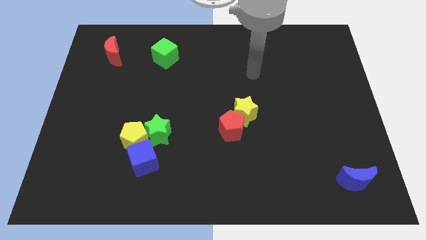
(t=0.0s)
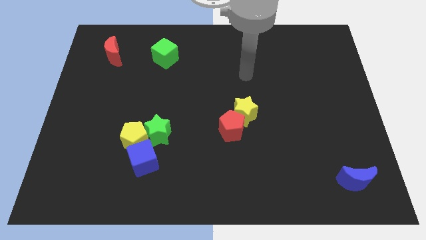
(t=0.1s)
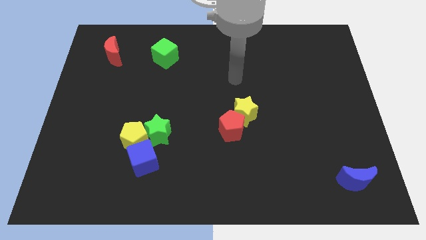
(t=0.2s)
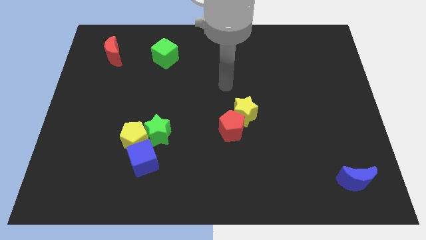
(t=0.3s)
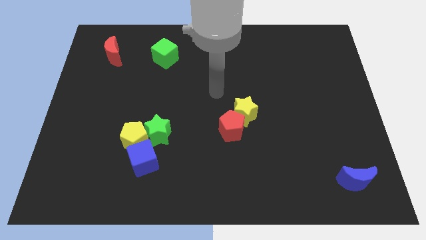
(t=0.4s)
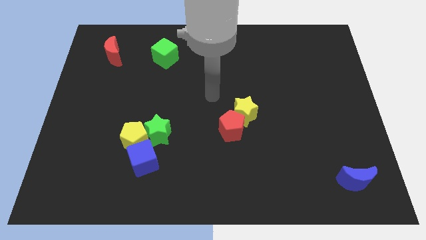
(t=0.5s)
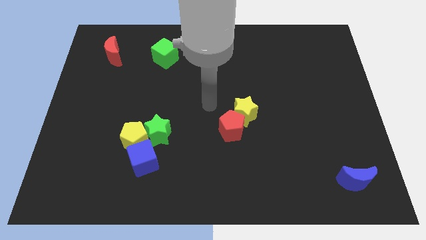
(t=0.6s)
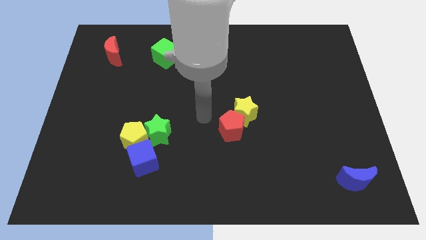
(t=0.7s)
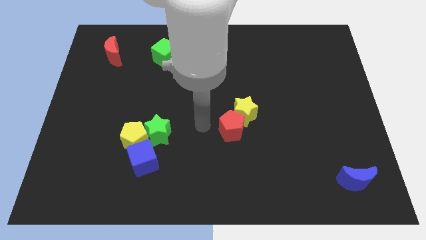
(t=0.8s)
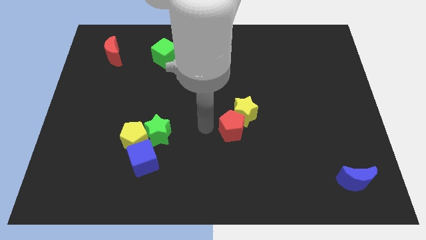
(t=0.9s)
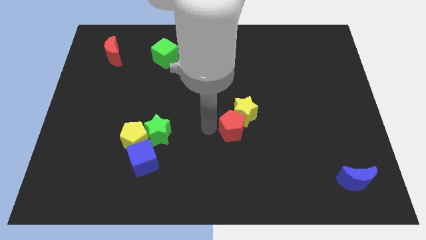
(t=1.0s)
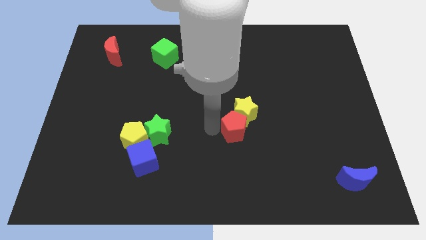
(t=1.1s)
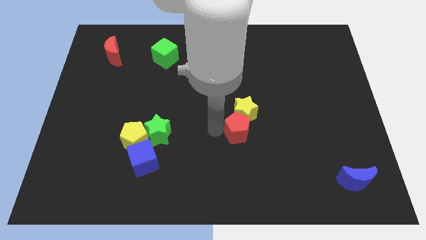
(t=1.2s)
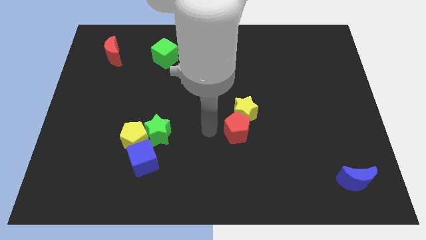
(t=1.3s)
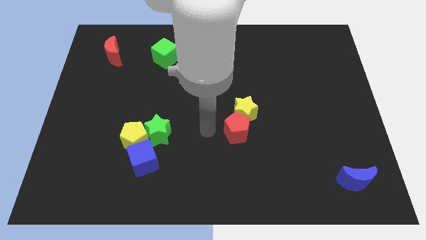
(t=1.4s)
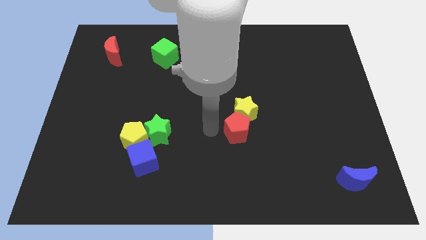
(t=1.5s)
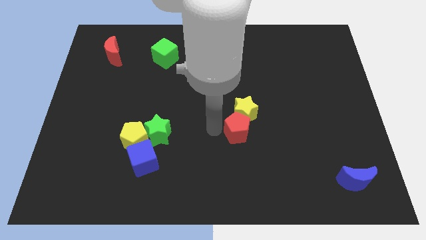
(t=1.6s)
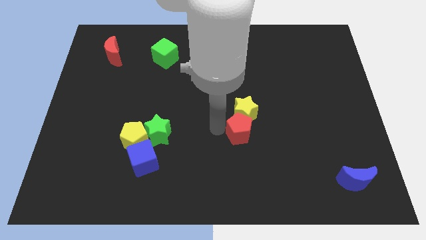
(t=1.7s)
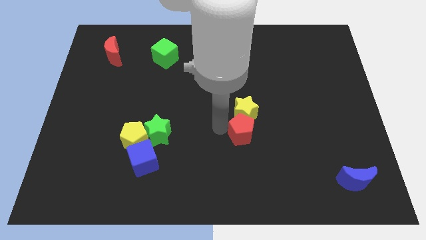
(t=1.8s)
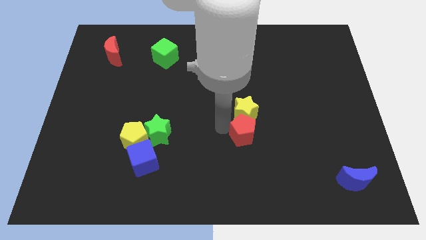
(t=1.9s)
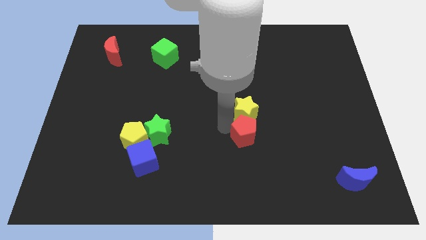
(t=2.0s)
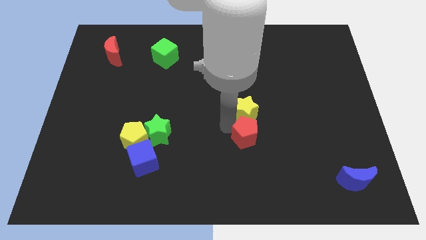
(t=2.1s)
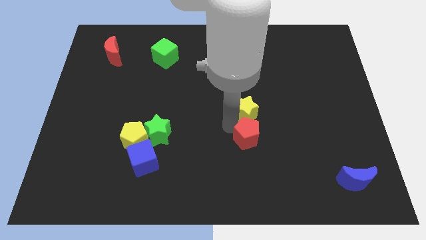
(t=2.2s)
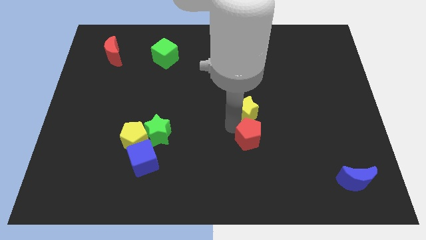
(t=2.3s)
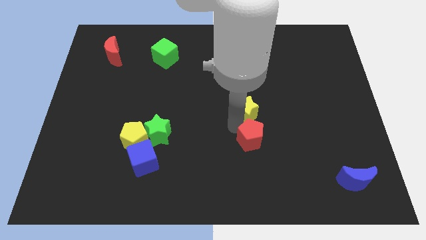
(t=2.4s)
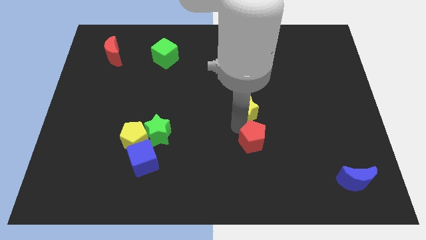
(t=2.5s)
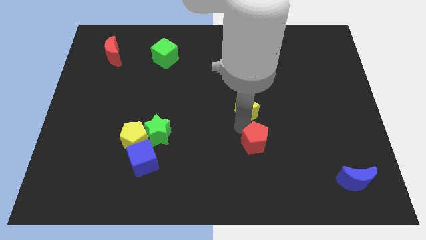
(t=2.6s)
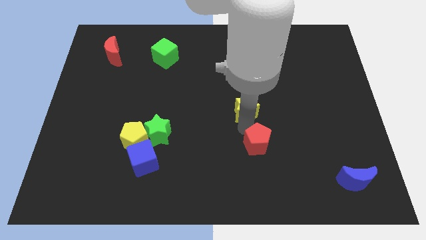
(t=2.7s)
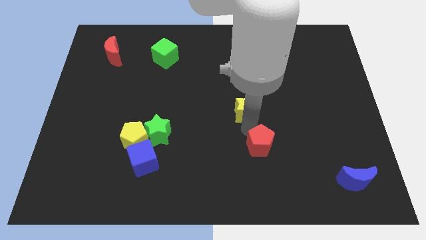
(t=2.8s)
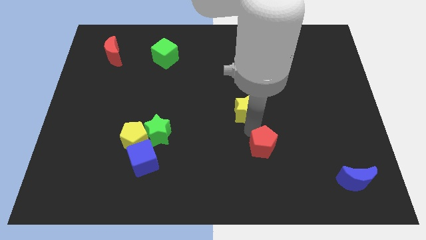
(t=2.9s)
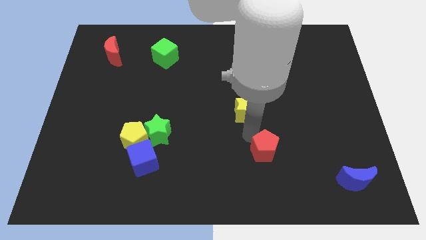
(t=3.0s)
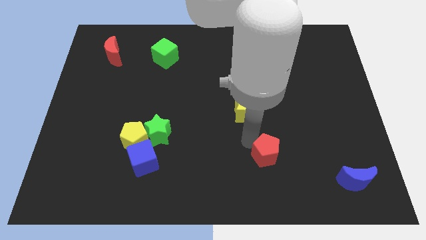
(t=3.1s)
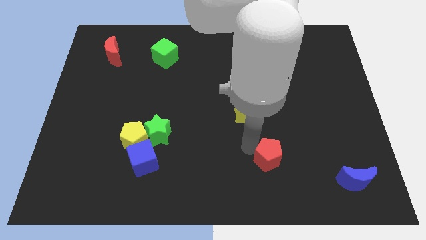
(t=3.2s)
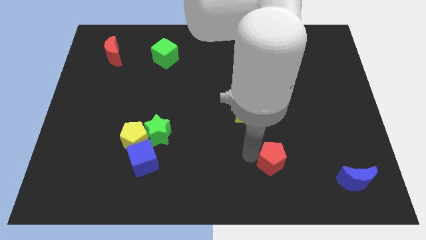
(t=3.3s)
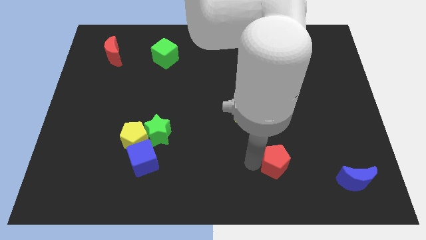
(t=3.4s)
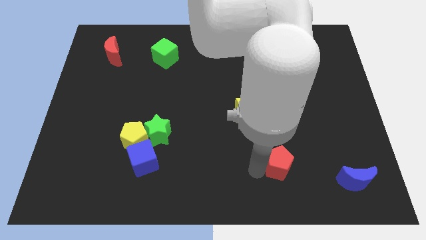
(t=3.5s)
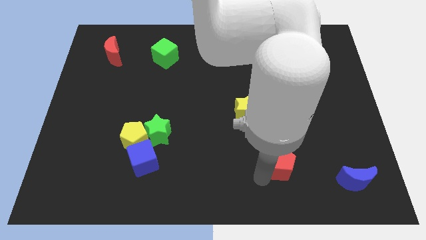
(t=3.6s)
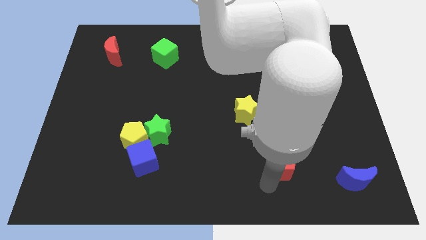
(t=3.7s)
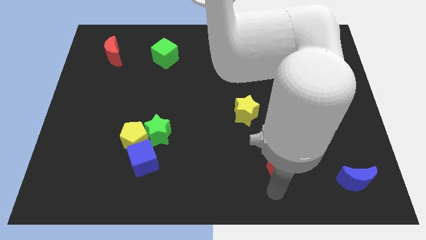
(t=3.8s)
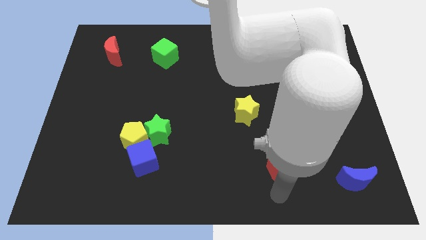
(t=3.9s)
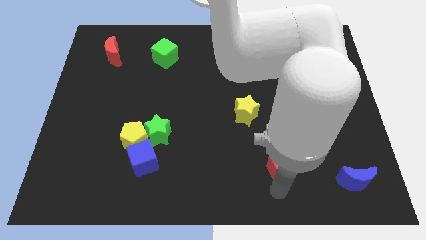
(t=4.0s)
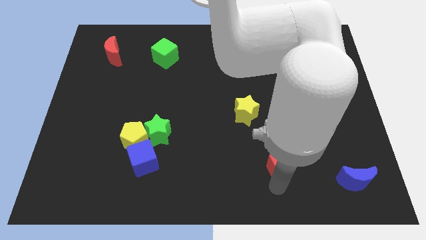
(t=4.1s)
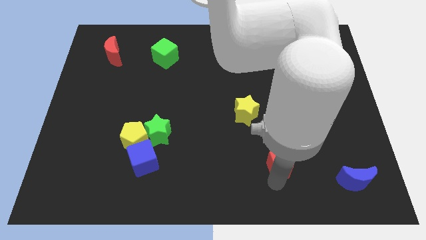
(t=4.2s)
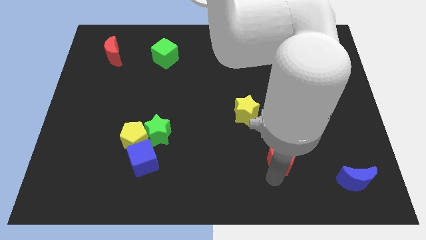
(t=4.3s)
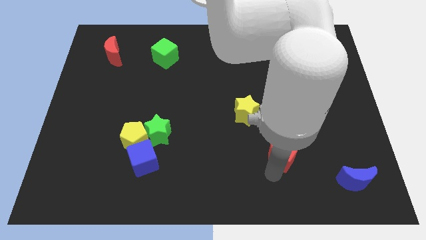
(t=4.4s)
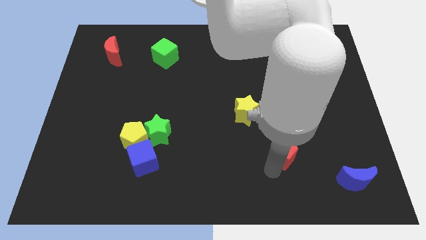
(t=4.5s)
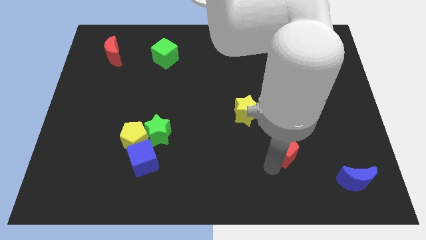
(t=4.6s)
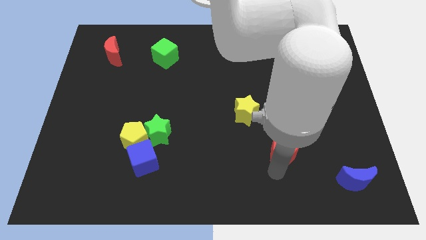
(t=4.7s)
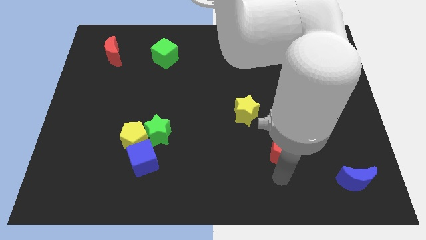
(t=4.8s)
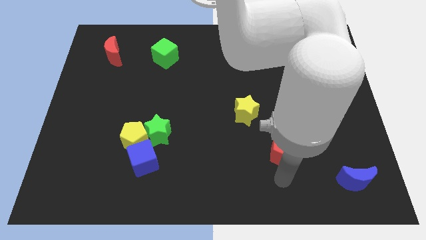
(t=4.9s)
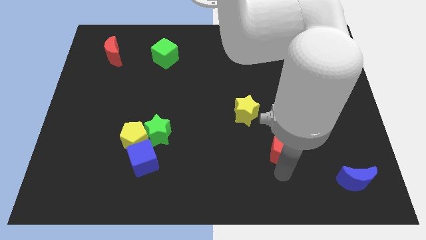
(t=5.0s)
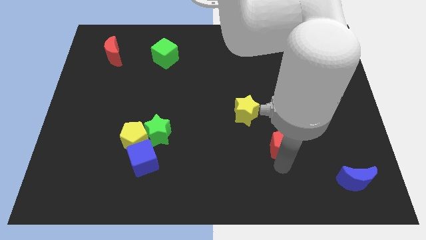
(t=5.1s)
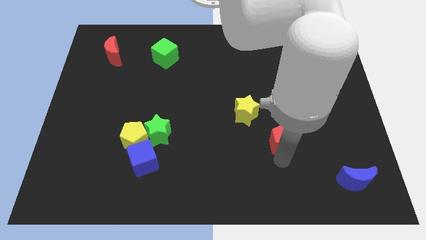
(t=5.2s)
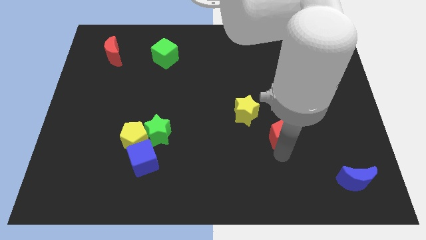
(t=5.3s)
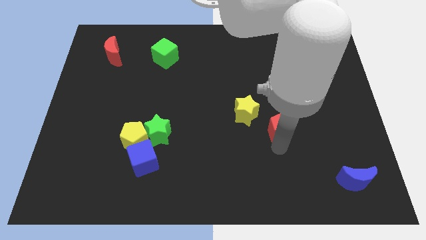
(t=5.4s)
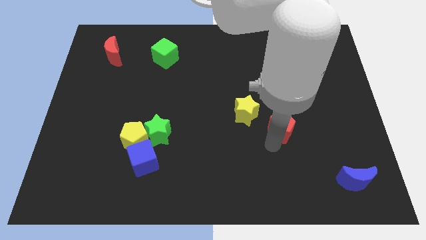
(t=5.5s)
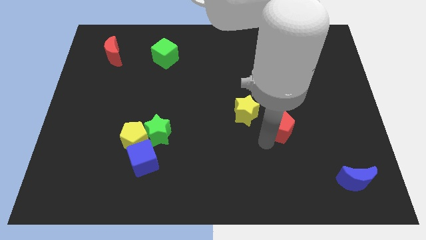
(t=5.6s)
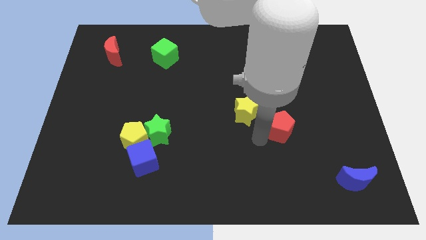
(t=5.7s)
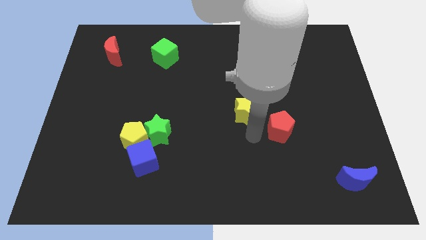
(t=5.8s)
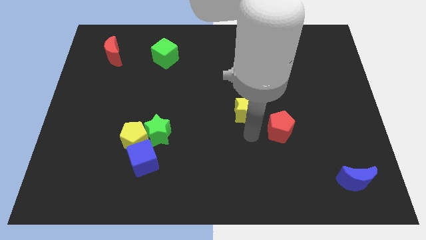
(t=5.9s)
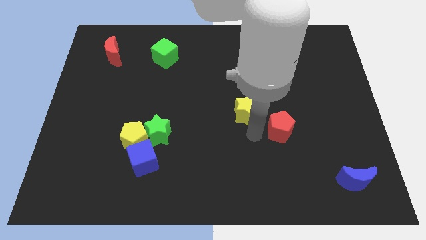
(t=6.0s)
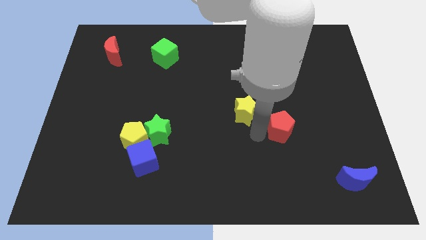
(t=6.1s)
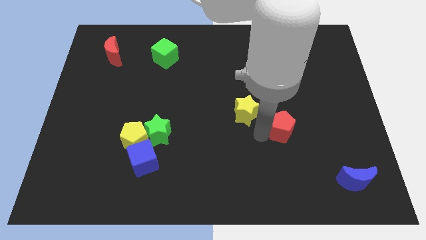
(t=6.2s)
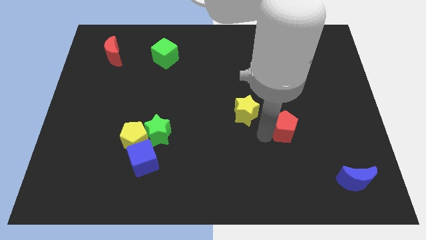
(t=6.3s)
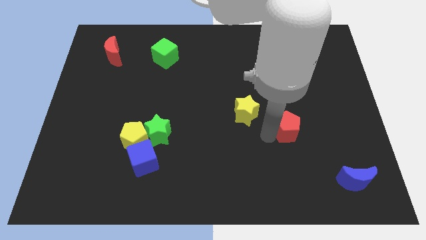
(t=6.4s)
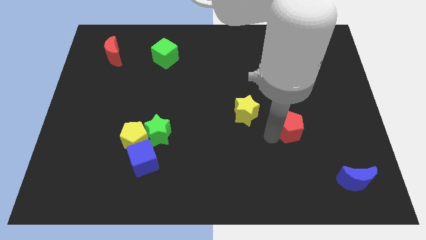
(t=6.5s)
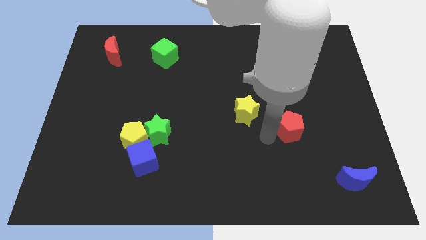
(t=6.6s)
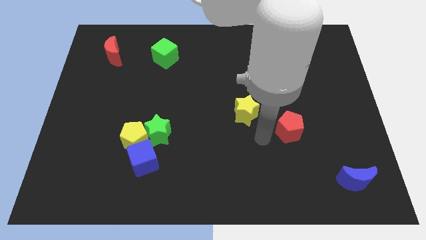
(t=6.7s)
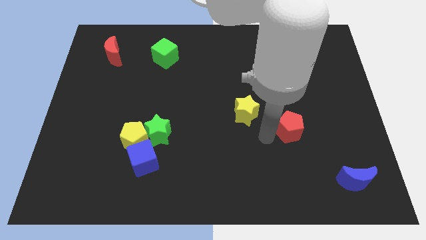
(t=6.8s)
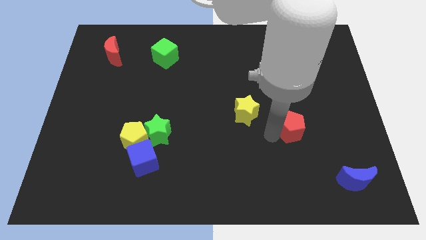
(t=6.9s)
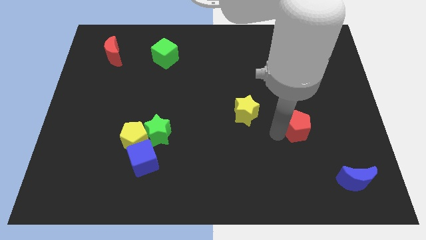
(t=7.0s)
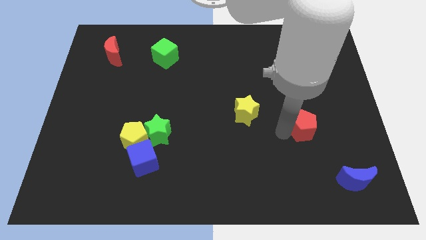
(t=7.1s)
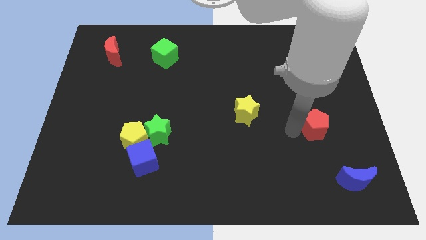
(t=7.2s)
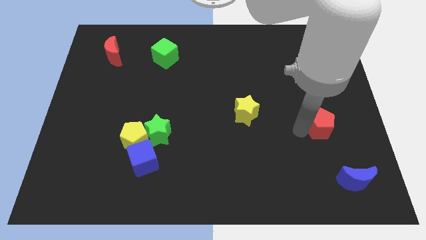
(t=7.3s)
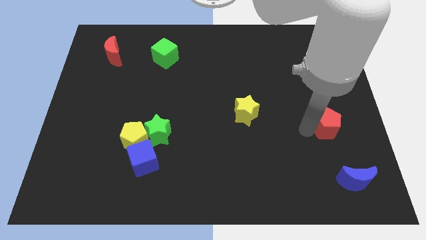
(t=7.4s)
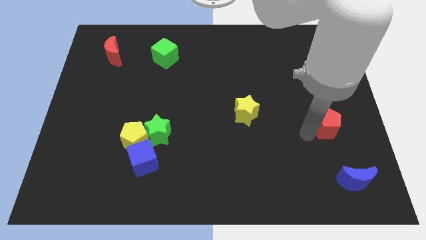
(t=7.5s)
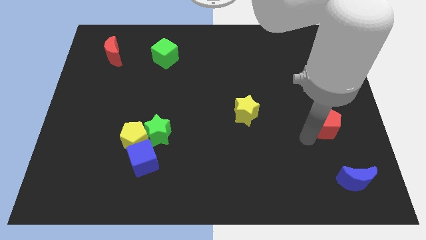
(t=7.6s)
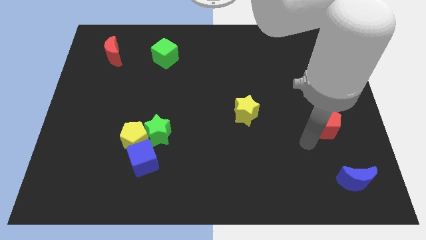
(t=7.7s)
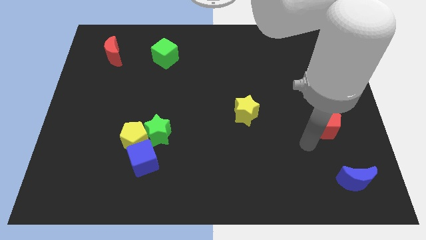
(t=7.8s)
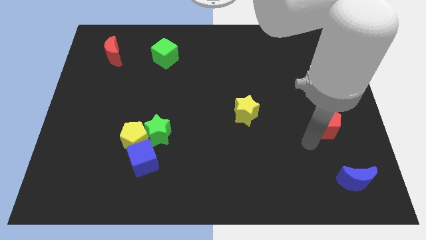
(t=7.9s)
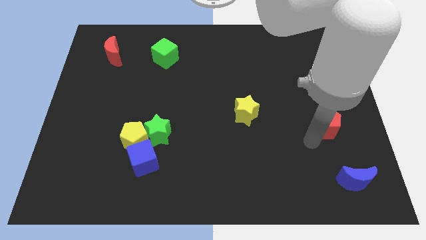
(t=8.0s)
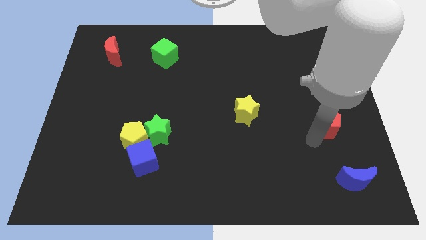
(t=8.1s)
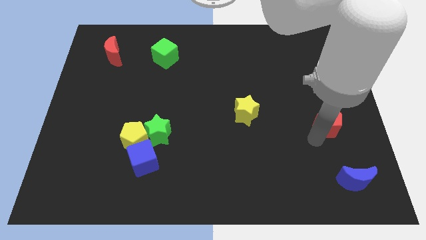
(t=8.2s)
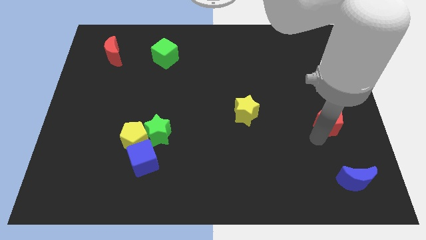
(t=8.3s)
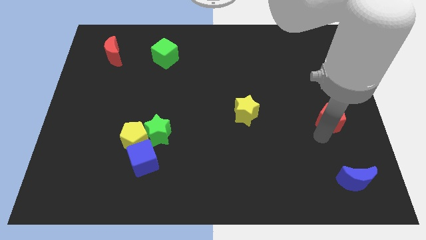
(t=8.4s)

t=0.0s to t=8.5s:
put the red pentagon to the right side
